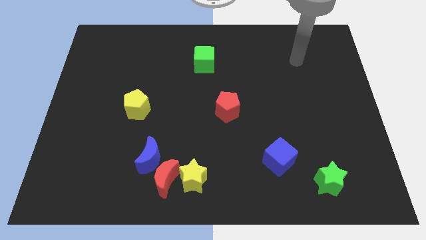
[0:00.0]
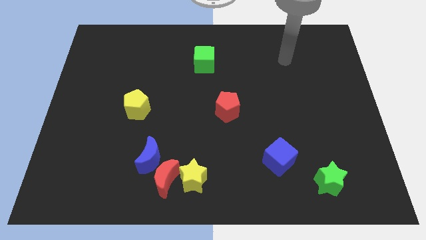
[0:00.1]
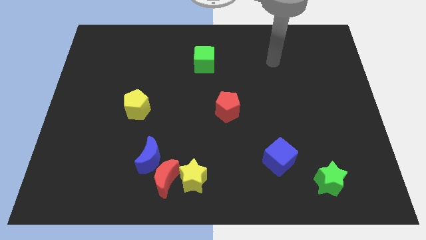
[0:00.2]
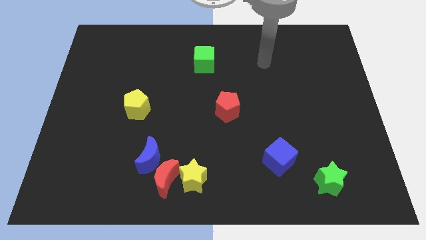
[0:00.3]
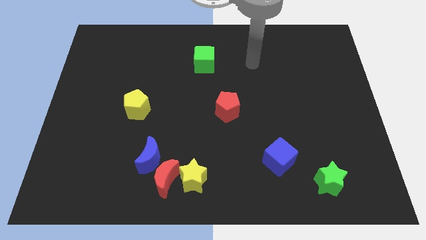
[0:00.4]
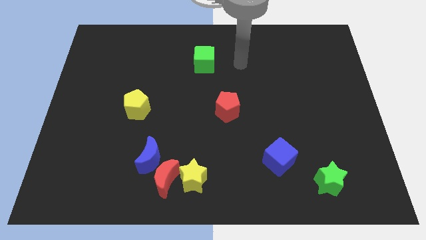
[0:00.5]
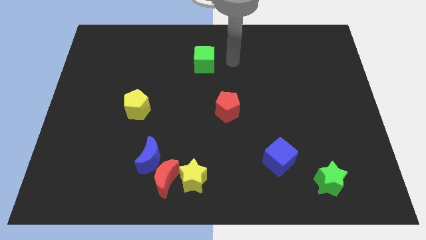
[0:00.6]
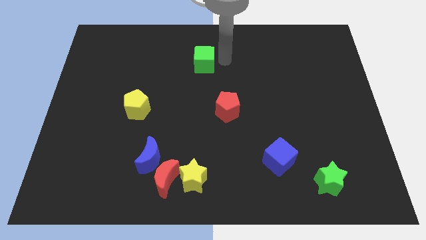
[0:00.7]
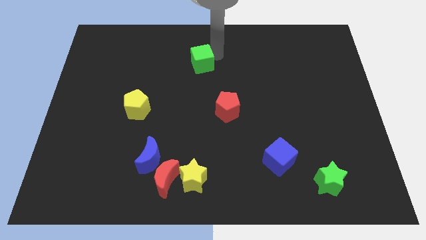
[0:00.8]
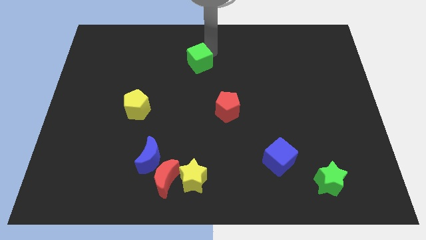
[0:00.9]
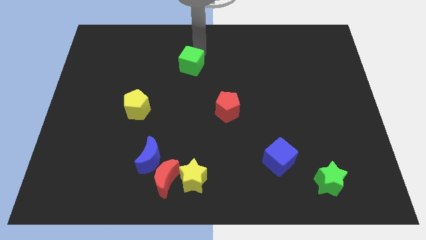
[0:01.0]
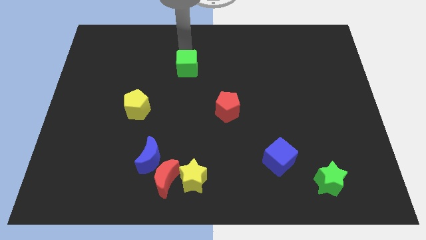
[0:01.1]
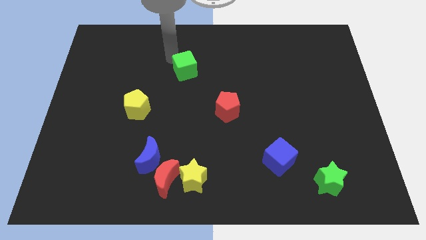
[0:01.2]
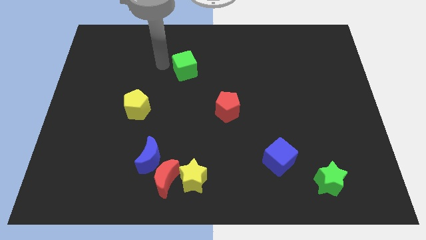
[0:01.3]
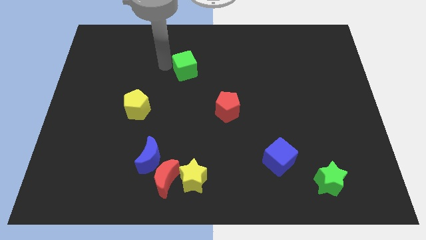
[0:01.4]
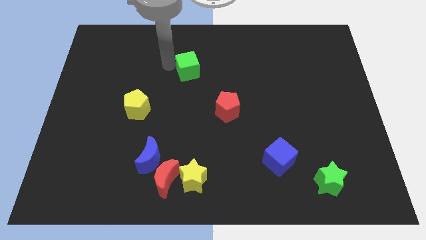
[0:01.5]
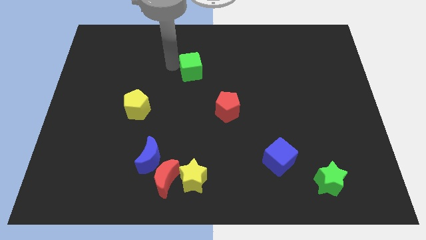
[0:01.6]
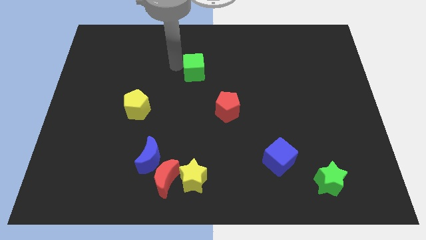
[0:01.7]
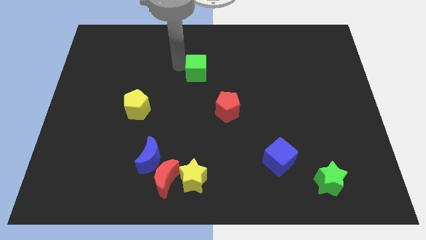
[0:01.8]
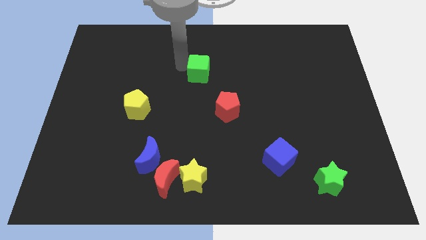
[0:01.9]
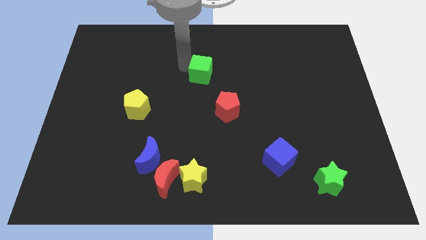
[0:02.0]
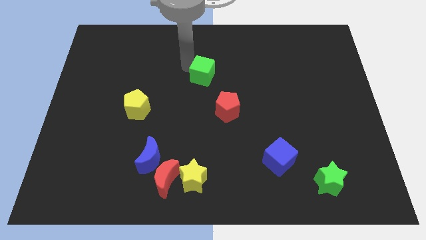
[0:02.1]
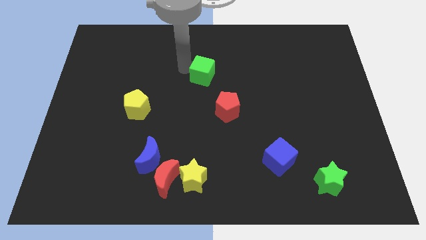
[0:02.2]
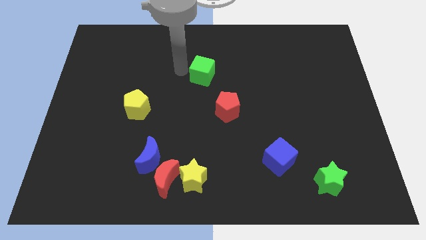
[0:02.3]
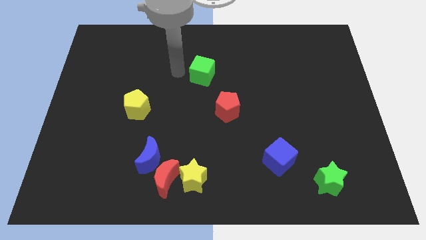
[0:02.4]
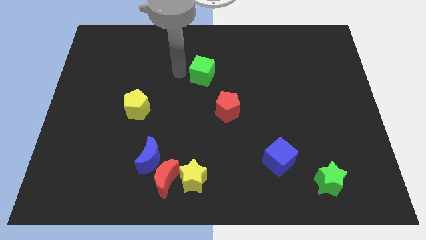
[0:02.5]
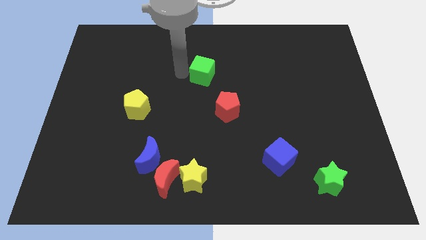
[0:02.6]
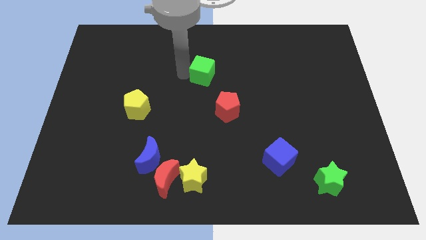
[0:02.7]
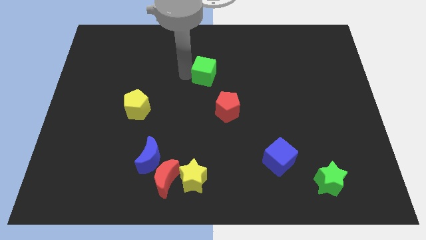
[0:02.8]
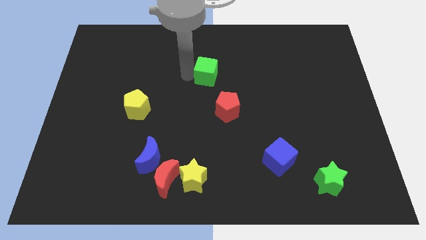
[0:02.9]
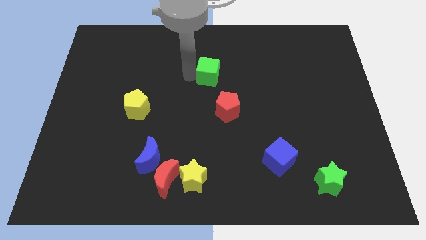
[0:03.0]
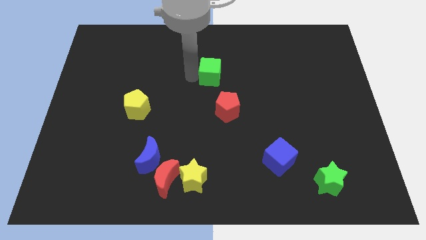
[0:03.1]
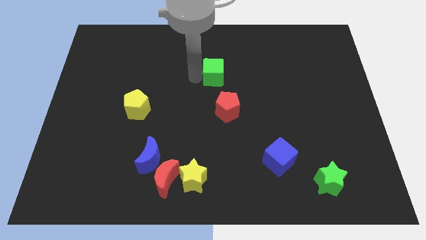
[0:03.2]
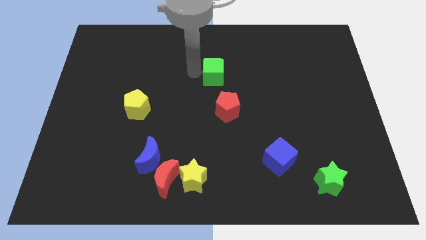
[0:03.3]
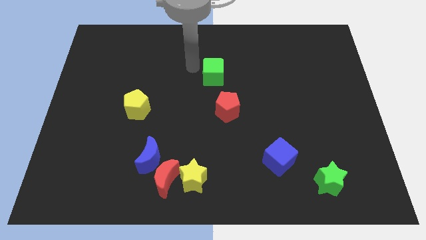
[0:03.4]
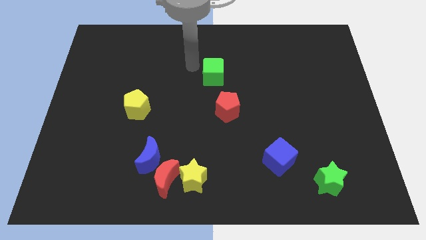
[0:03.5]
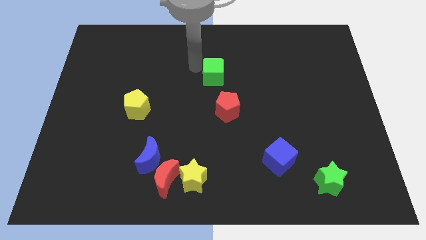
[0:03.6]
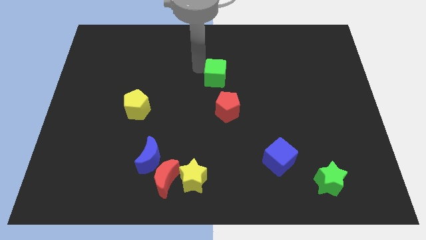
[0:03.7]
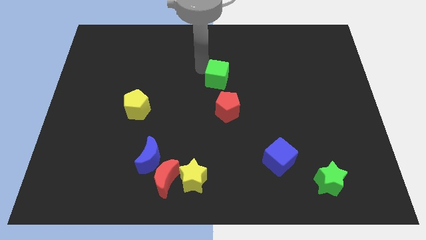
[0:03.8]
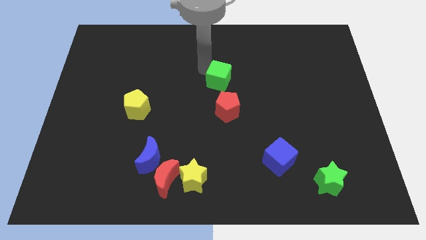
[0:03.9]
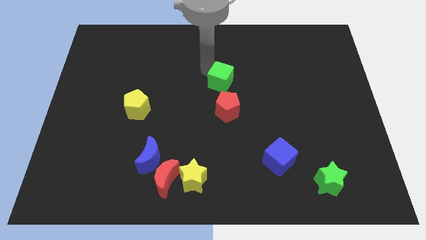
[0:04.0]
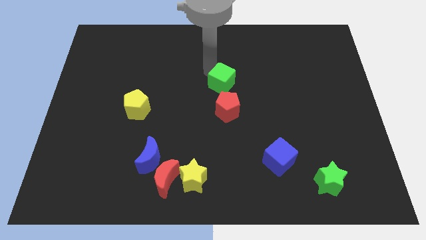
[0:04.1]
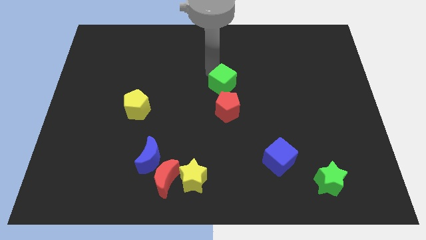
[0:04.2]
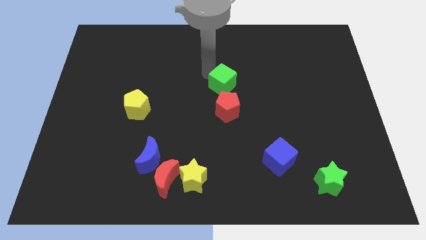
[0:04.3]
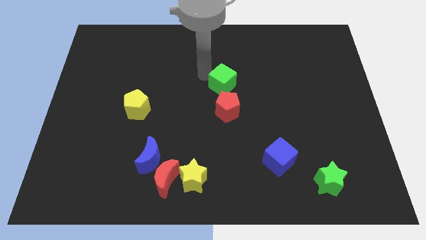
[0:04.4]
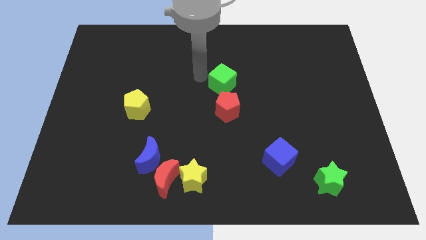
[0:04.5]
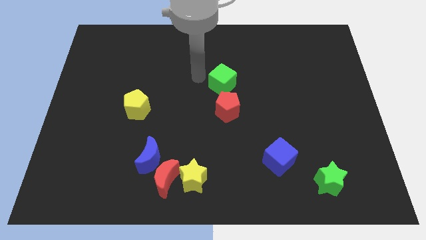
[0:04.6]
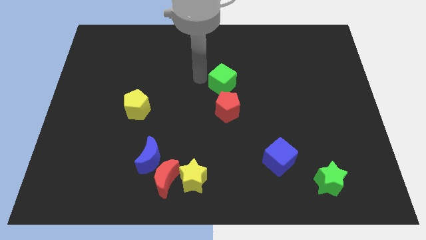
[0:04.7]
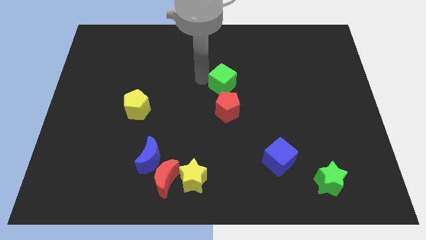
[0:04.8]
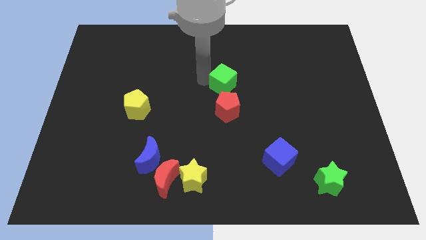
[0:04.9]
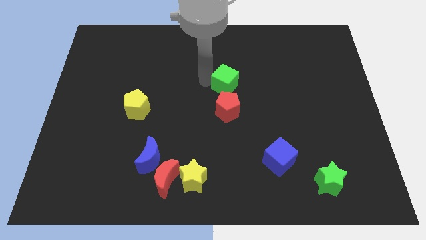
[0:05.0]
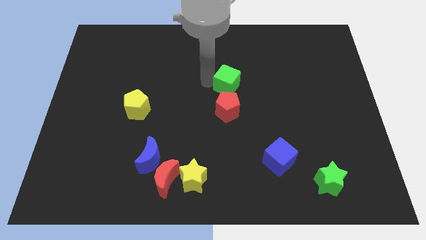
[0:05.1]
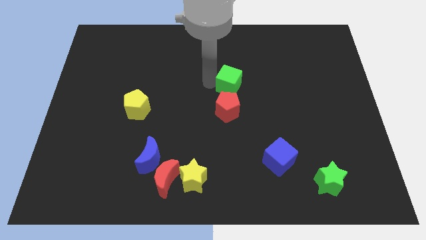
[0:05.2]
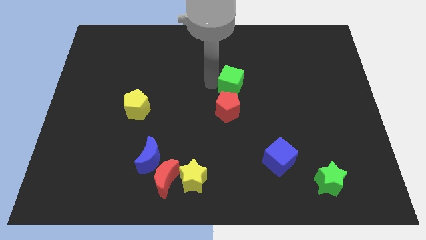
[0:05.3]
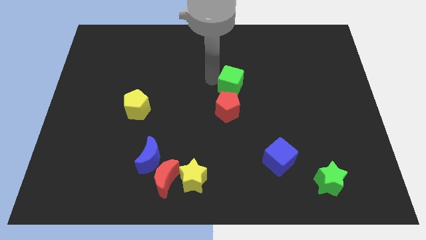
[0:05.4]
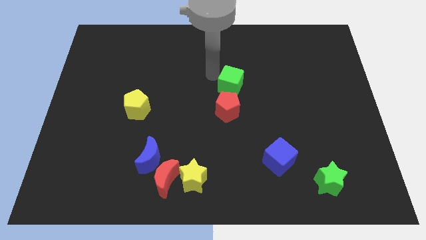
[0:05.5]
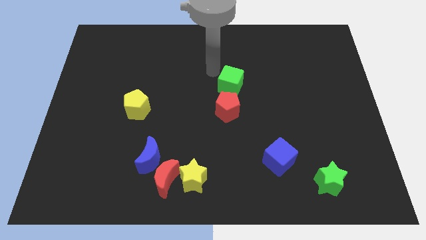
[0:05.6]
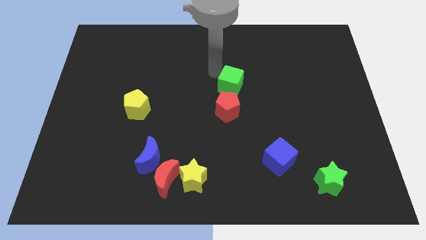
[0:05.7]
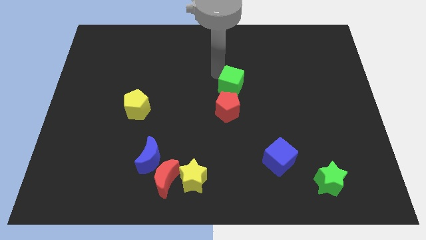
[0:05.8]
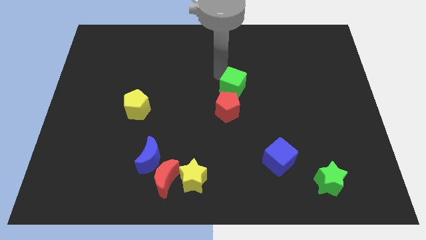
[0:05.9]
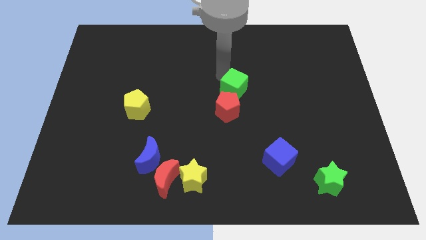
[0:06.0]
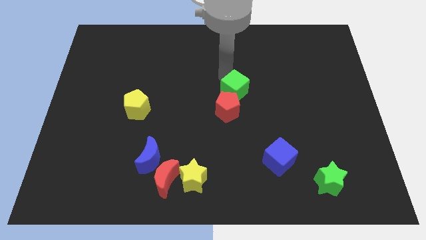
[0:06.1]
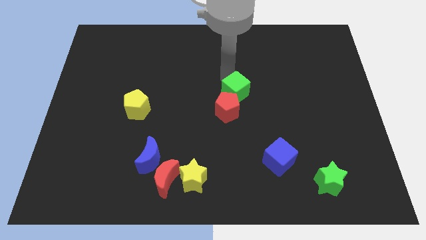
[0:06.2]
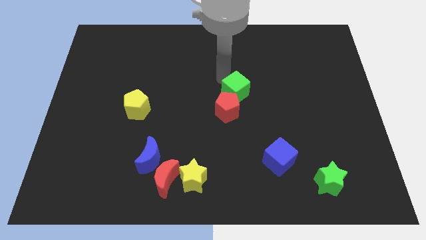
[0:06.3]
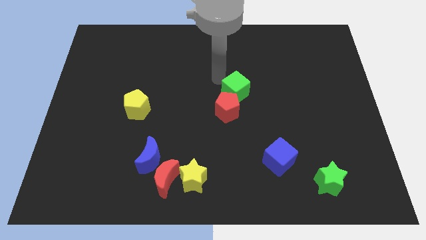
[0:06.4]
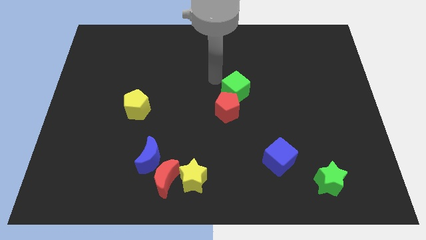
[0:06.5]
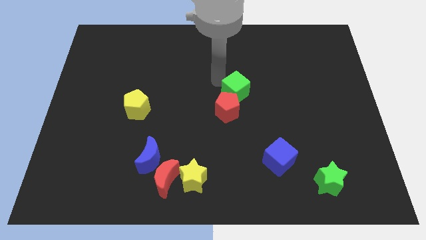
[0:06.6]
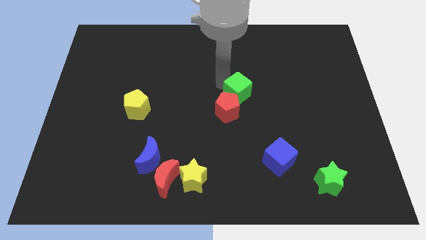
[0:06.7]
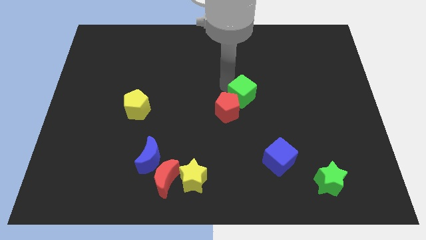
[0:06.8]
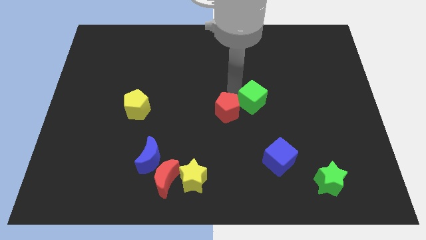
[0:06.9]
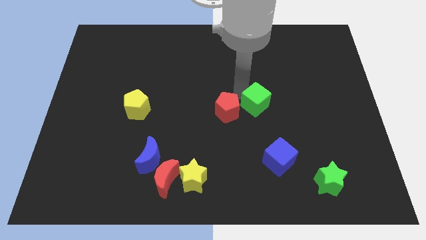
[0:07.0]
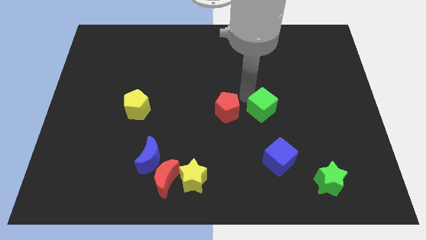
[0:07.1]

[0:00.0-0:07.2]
move the green cube to the top side of the blue cube

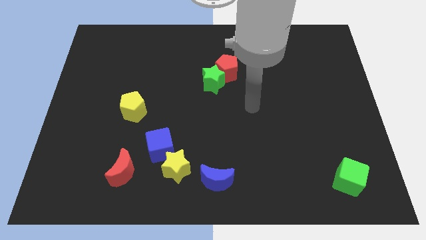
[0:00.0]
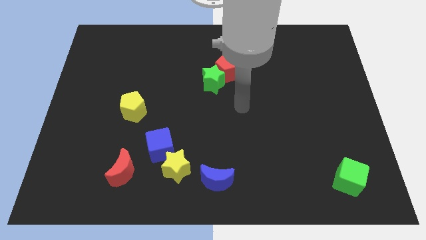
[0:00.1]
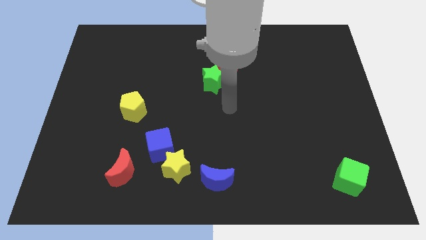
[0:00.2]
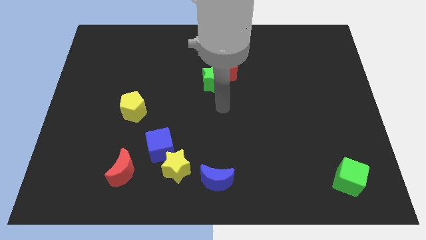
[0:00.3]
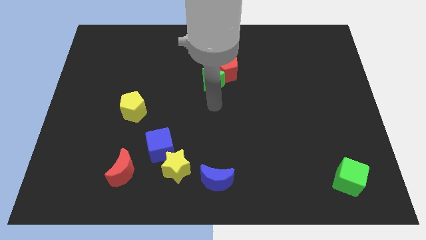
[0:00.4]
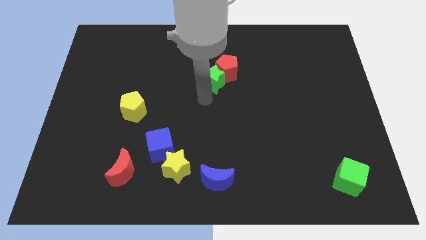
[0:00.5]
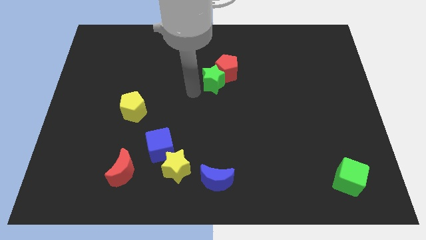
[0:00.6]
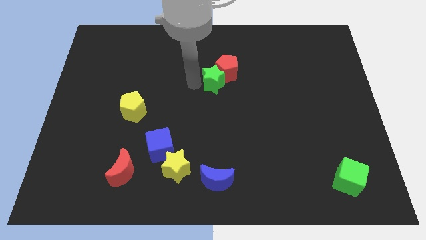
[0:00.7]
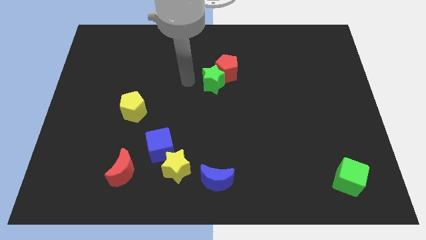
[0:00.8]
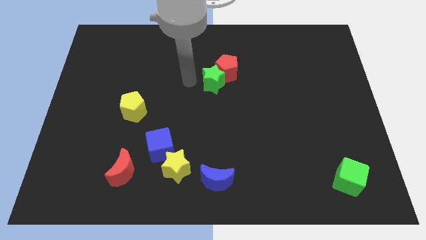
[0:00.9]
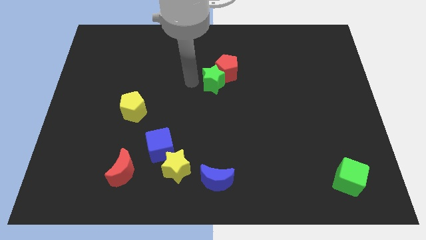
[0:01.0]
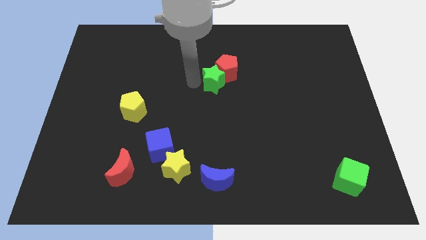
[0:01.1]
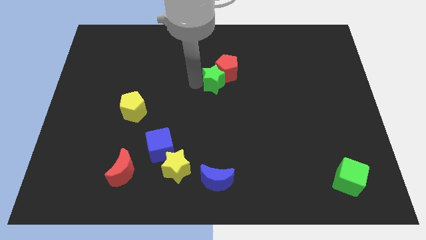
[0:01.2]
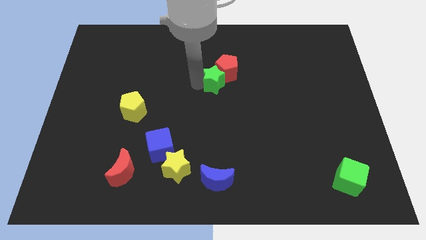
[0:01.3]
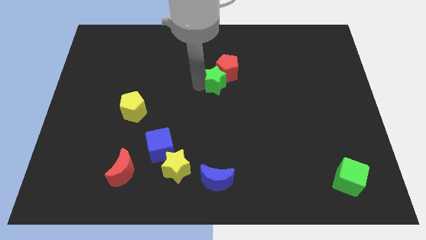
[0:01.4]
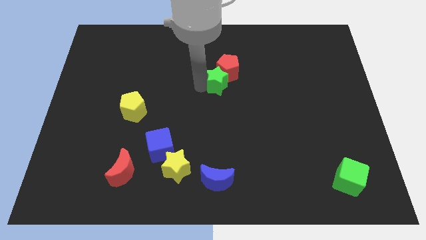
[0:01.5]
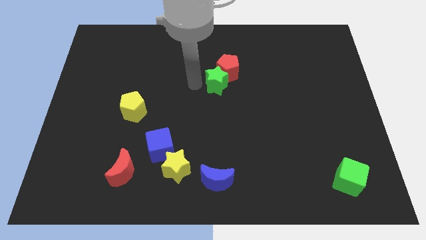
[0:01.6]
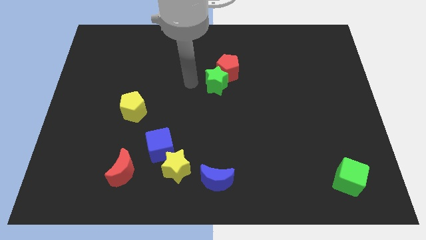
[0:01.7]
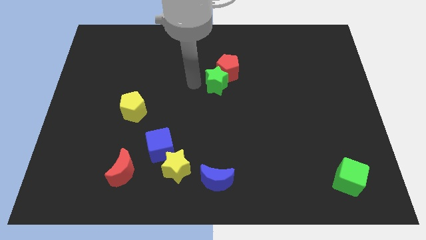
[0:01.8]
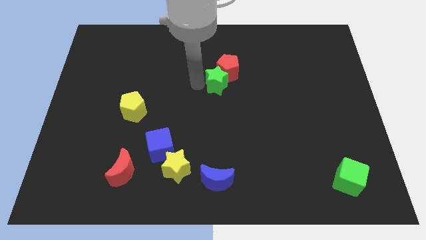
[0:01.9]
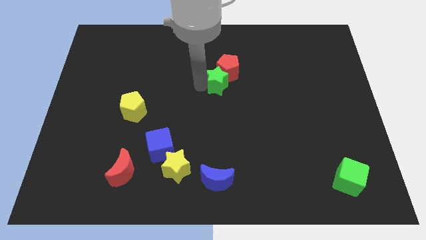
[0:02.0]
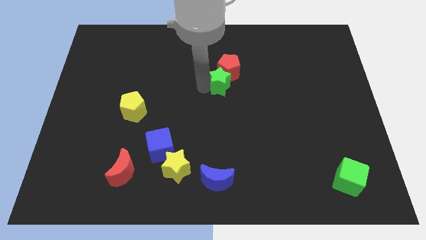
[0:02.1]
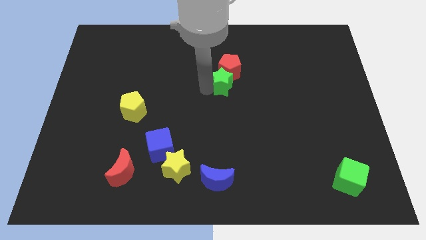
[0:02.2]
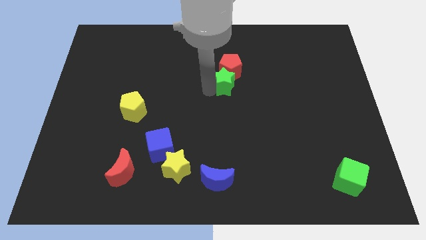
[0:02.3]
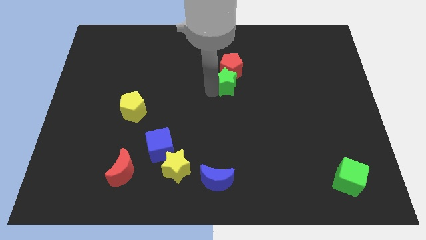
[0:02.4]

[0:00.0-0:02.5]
move the green star to the bottom right side of the red pentagon
